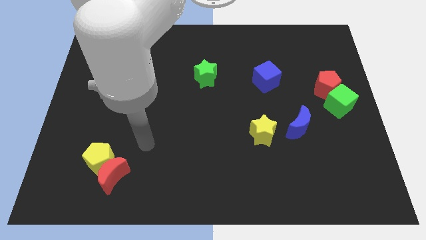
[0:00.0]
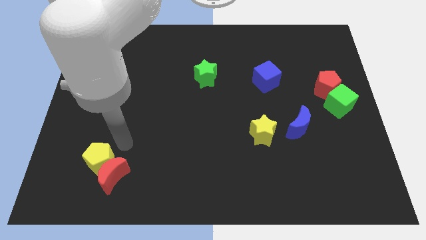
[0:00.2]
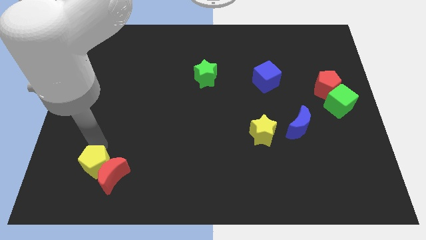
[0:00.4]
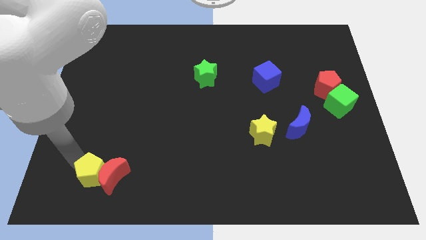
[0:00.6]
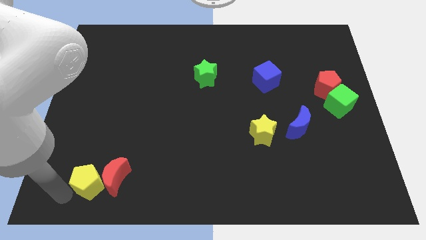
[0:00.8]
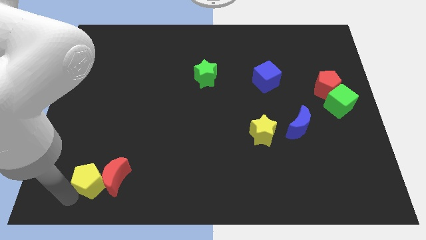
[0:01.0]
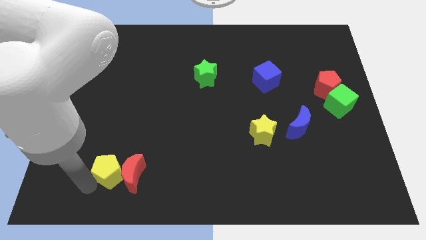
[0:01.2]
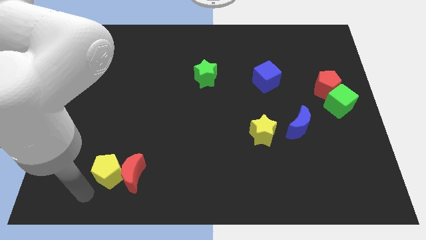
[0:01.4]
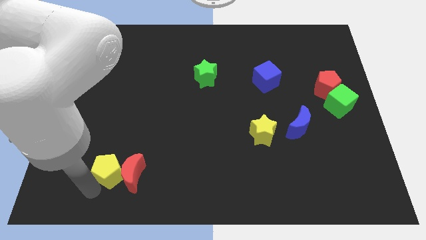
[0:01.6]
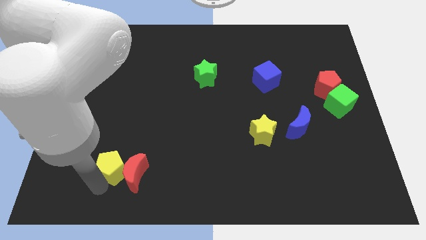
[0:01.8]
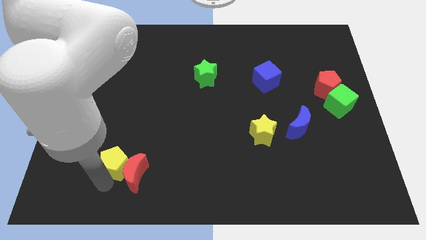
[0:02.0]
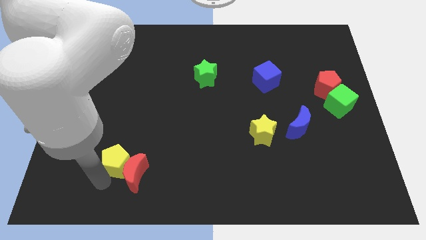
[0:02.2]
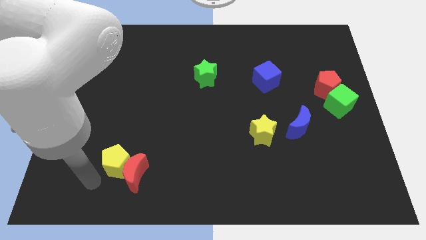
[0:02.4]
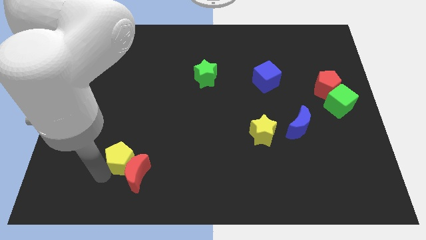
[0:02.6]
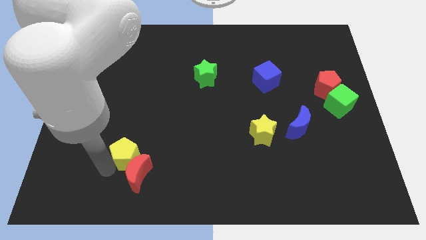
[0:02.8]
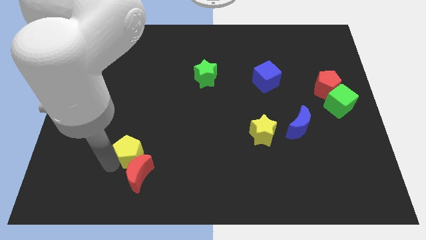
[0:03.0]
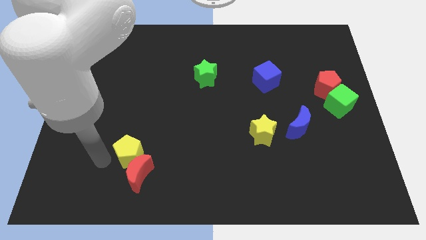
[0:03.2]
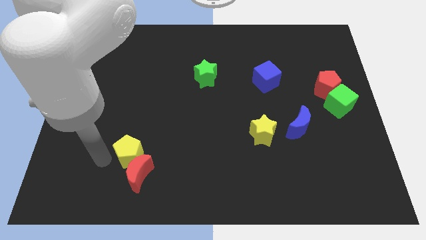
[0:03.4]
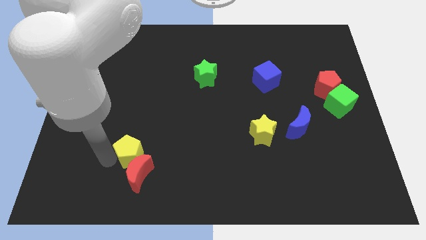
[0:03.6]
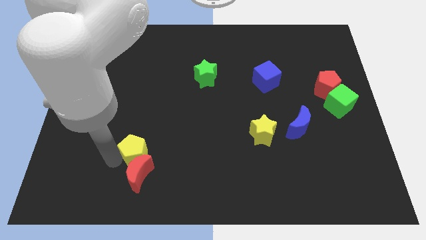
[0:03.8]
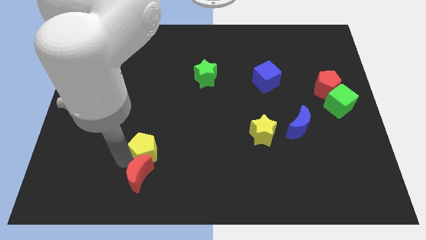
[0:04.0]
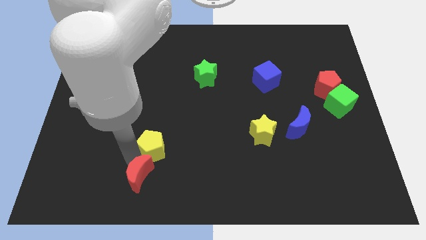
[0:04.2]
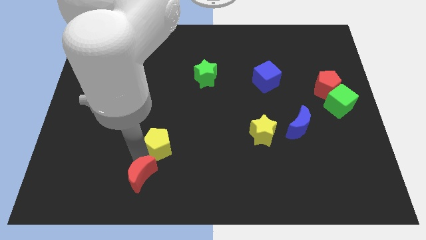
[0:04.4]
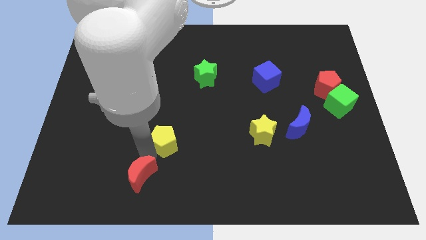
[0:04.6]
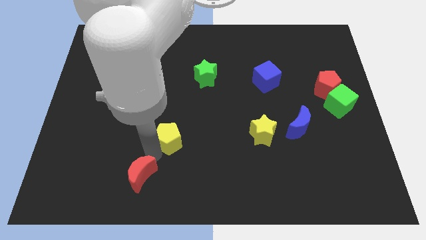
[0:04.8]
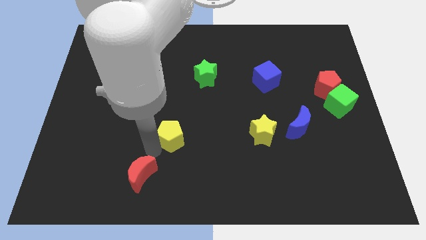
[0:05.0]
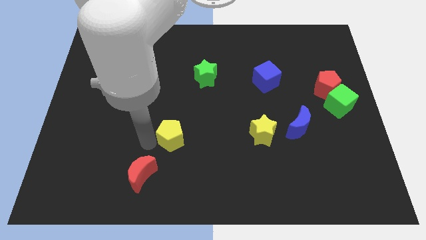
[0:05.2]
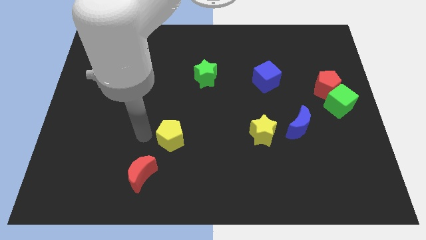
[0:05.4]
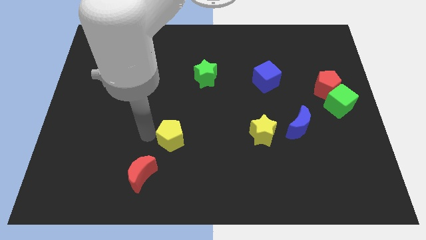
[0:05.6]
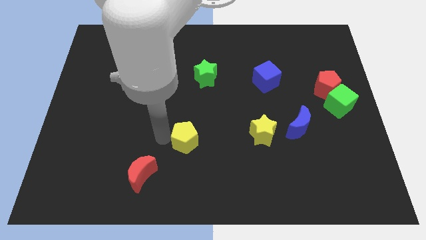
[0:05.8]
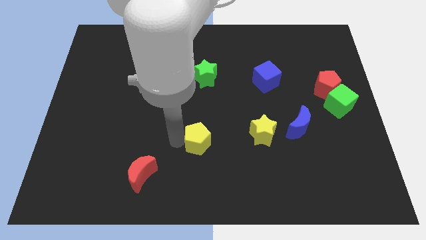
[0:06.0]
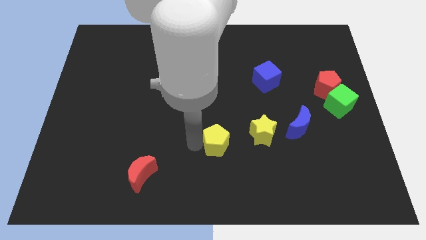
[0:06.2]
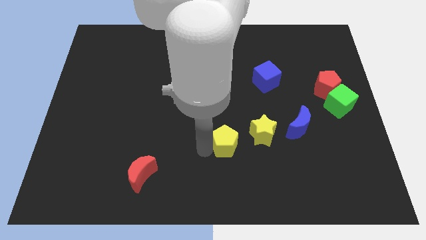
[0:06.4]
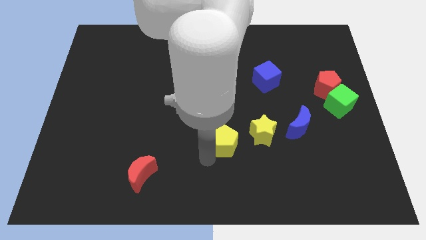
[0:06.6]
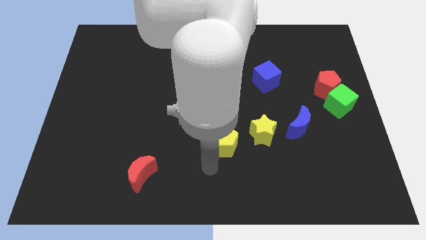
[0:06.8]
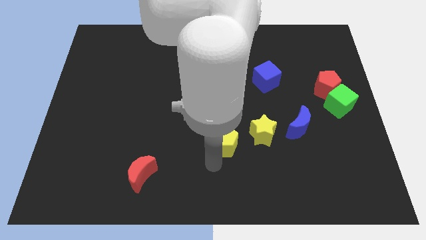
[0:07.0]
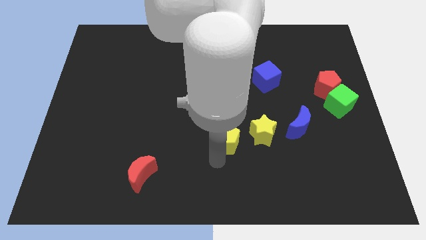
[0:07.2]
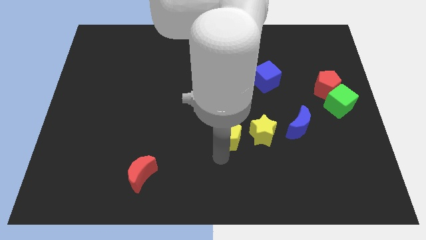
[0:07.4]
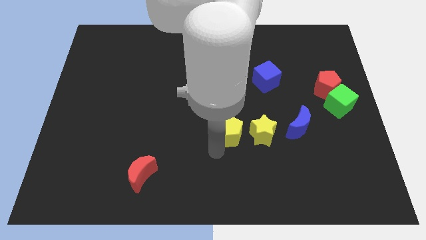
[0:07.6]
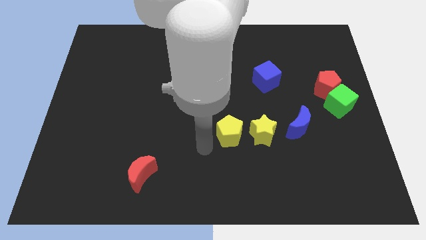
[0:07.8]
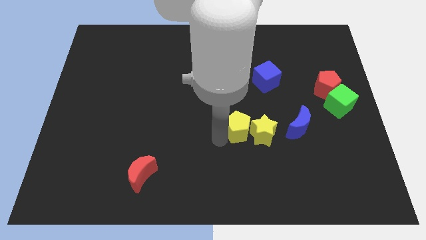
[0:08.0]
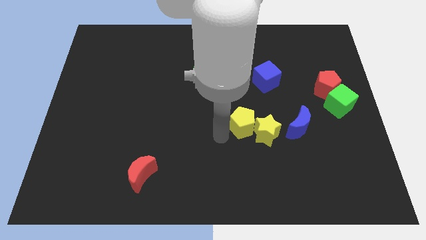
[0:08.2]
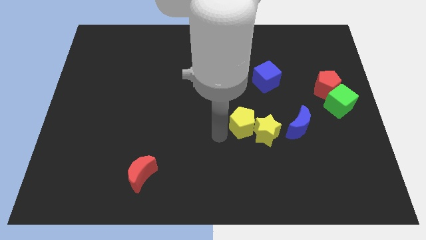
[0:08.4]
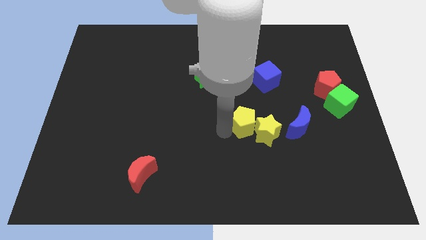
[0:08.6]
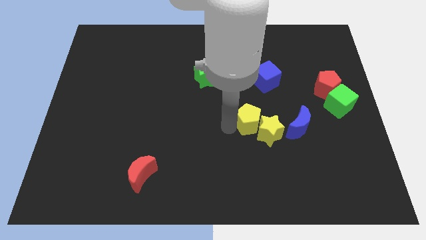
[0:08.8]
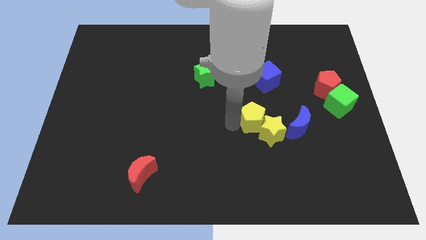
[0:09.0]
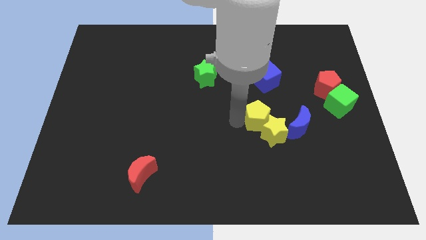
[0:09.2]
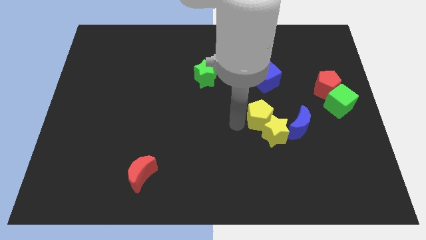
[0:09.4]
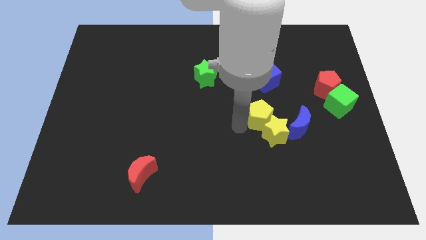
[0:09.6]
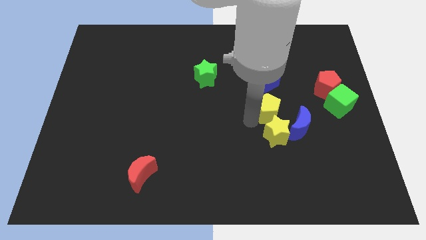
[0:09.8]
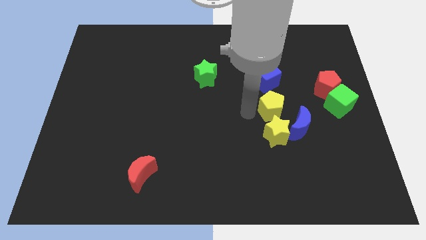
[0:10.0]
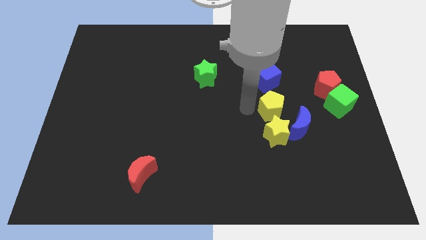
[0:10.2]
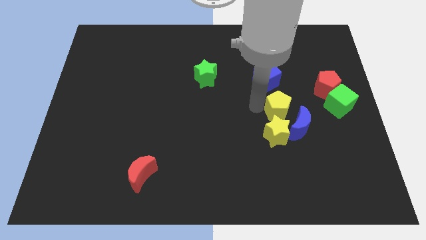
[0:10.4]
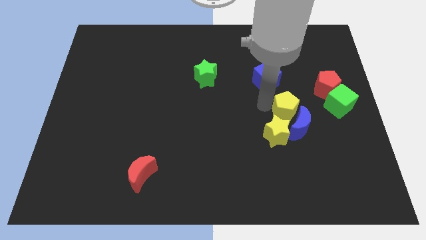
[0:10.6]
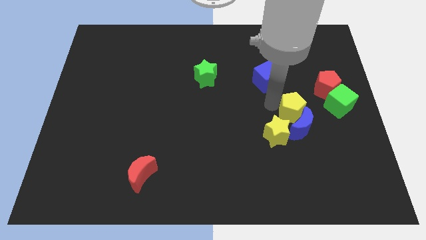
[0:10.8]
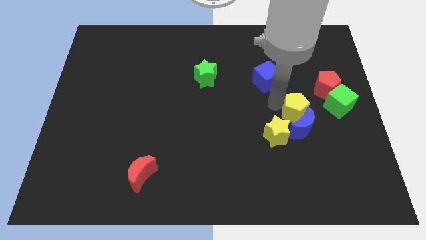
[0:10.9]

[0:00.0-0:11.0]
move the yellow pentagon diagonally up and to the right of the blue moon

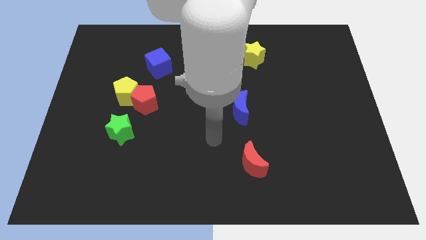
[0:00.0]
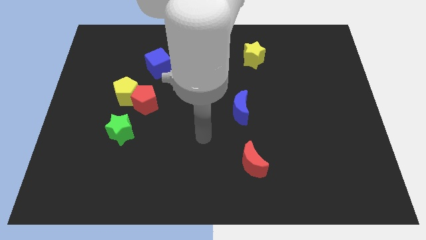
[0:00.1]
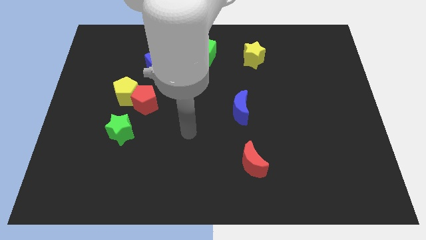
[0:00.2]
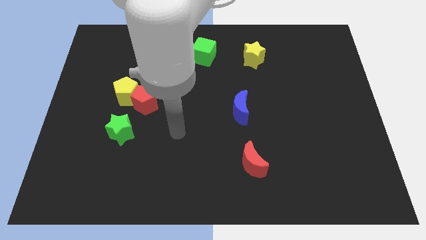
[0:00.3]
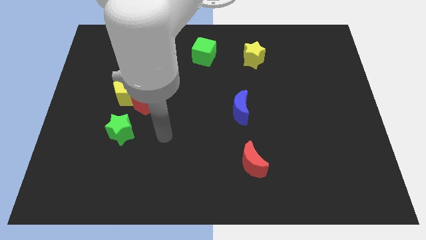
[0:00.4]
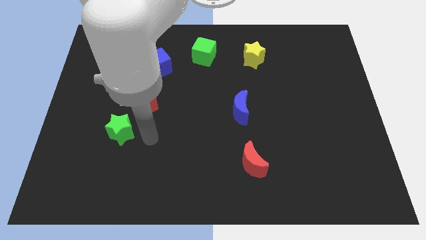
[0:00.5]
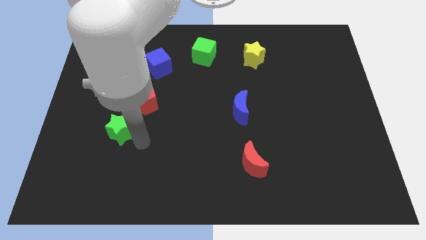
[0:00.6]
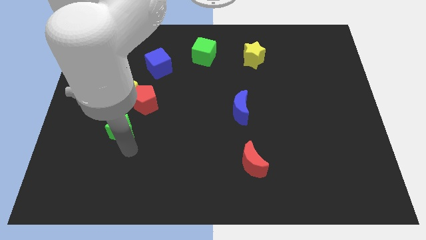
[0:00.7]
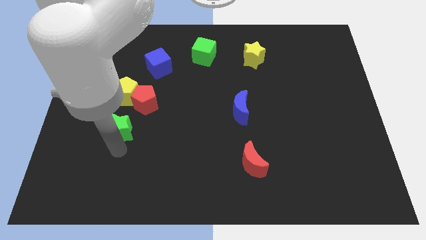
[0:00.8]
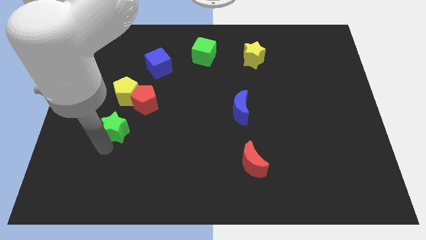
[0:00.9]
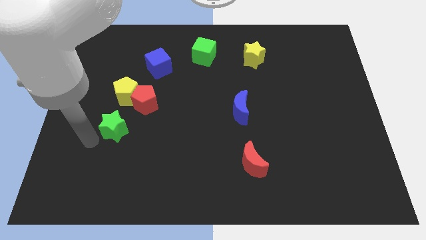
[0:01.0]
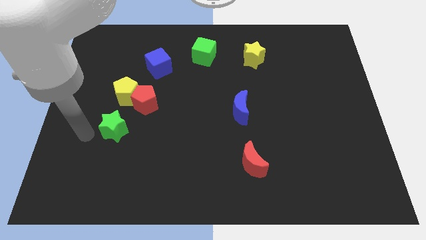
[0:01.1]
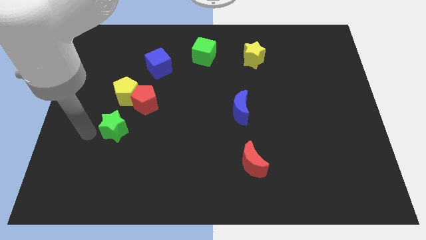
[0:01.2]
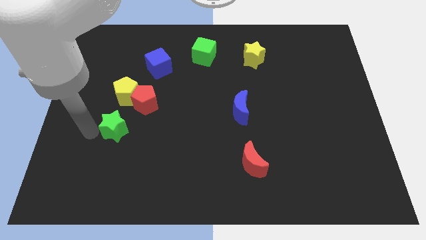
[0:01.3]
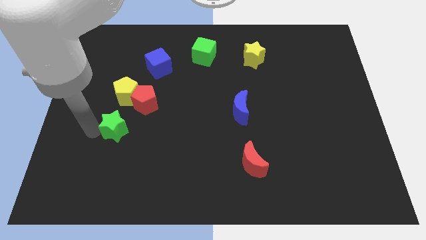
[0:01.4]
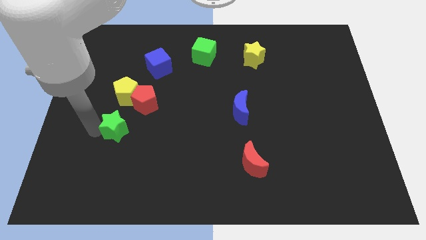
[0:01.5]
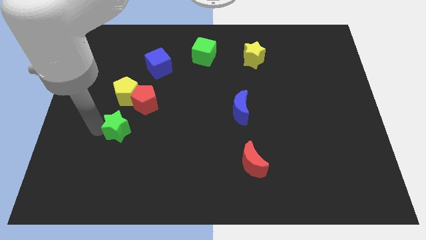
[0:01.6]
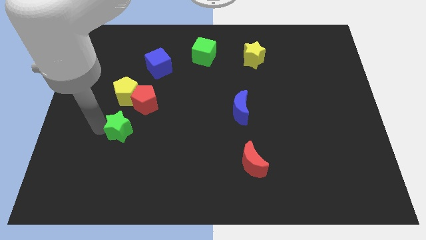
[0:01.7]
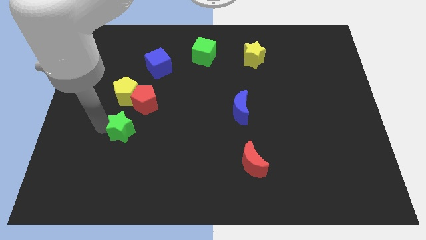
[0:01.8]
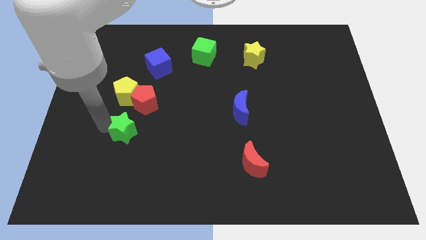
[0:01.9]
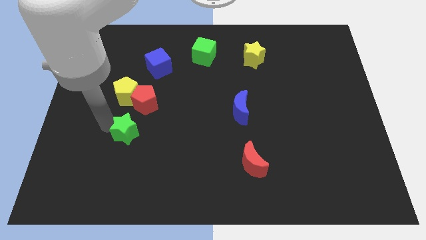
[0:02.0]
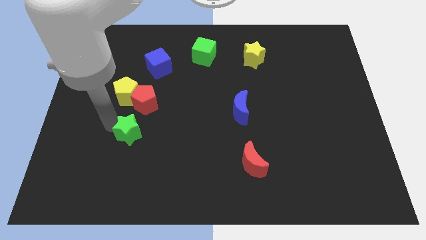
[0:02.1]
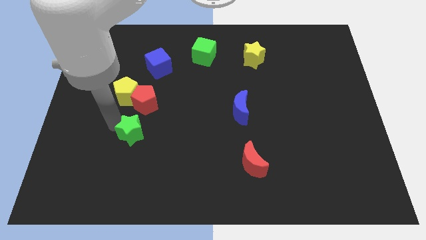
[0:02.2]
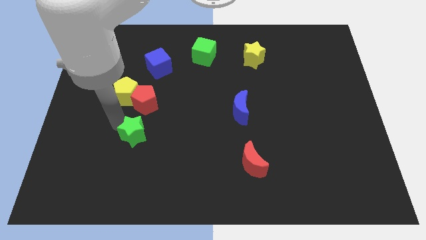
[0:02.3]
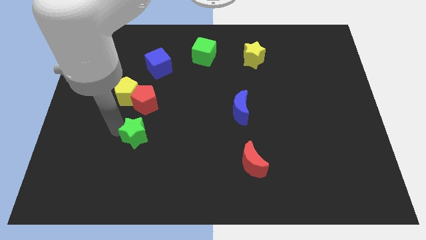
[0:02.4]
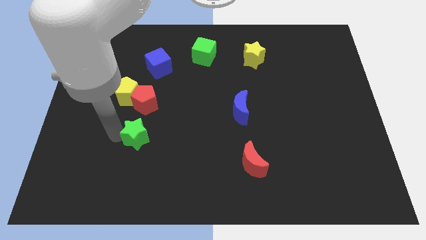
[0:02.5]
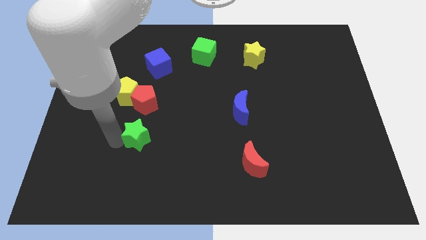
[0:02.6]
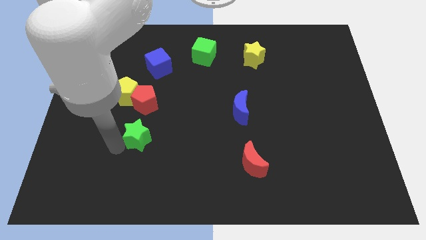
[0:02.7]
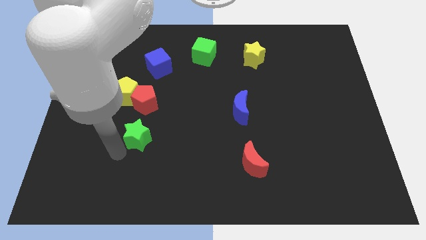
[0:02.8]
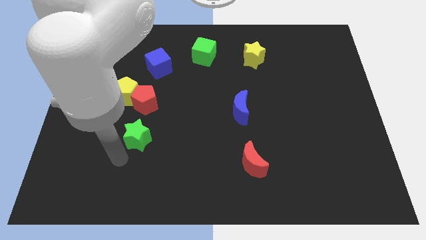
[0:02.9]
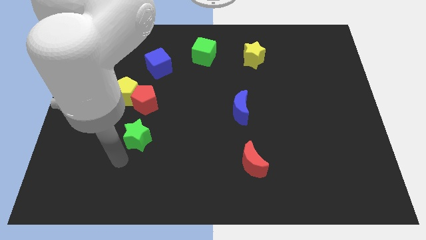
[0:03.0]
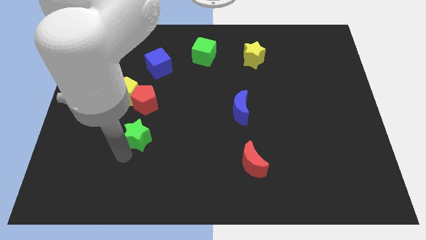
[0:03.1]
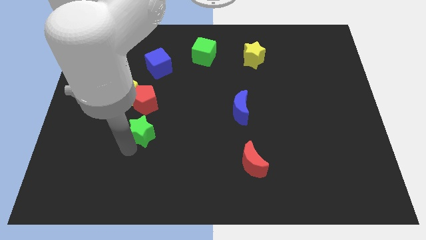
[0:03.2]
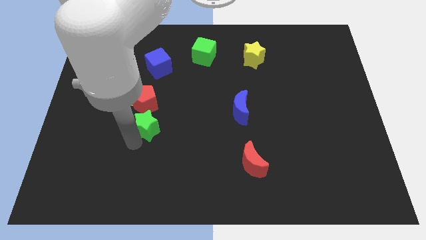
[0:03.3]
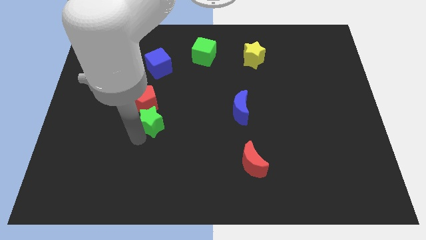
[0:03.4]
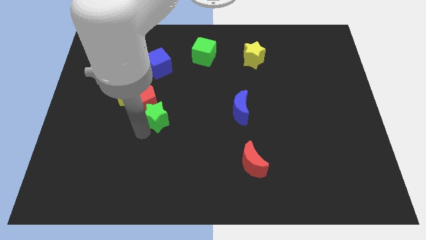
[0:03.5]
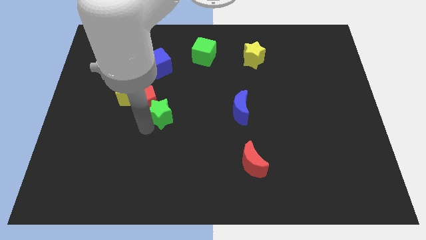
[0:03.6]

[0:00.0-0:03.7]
slide the green star to the right of the red pentagon
